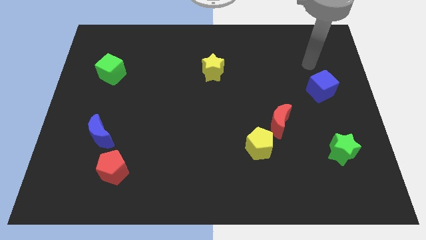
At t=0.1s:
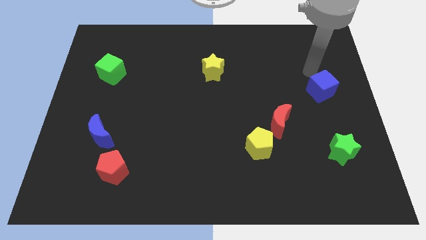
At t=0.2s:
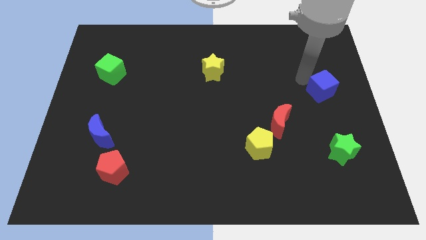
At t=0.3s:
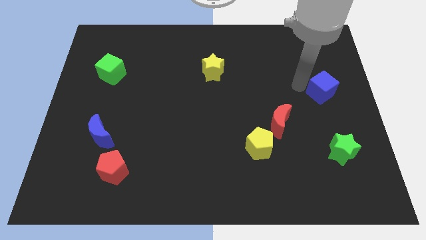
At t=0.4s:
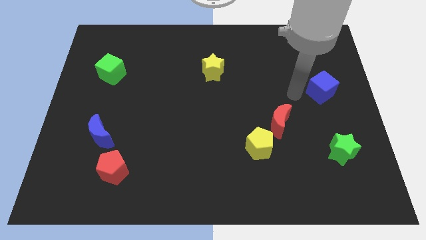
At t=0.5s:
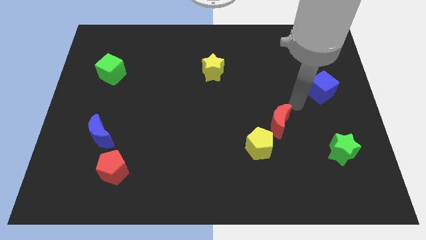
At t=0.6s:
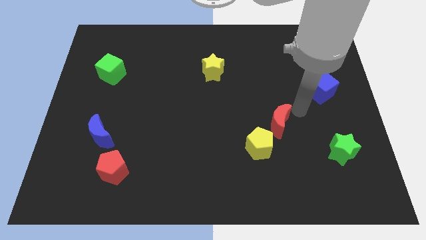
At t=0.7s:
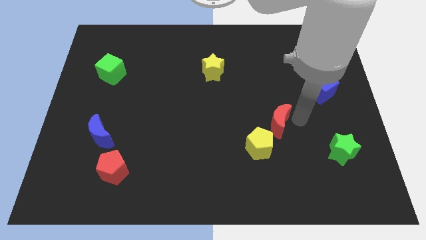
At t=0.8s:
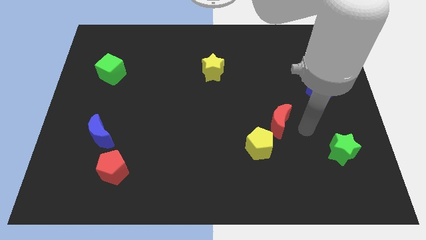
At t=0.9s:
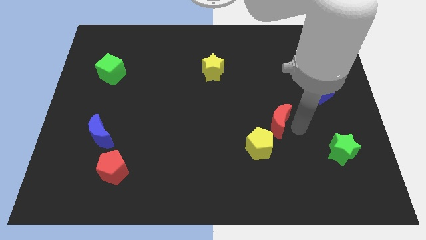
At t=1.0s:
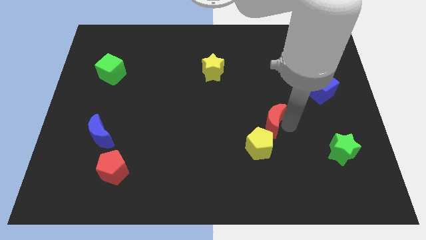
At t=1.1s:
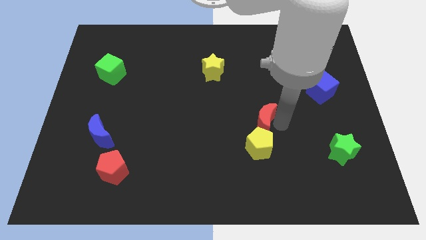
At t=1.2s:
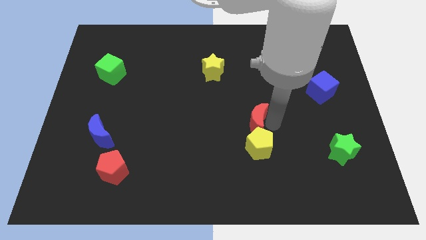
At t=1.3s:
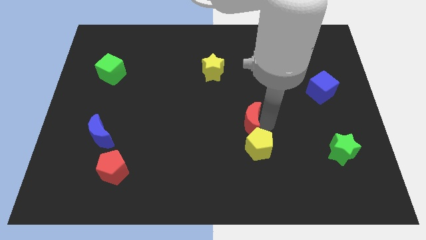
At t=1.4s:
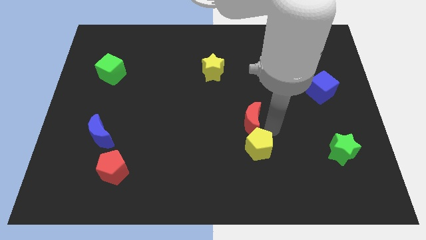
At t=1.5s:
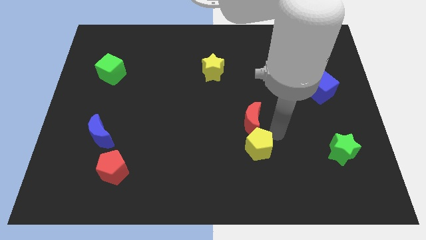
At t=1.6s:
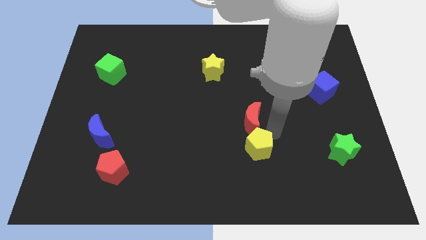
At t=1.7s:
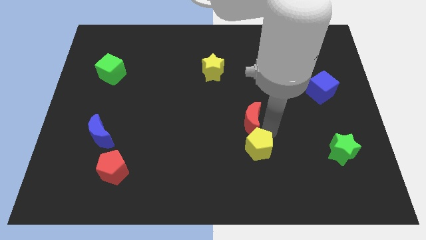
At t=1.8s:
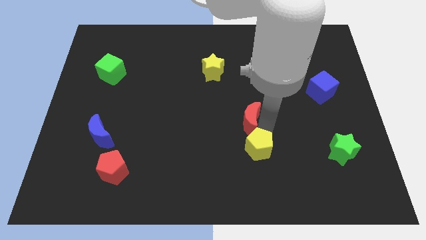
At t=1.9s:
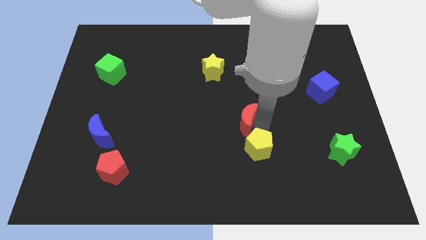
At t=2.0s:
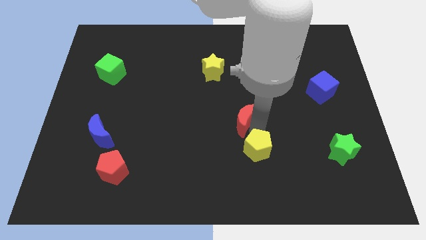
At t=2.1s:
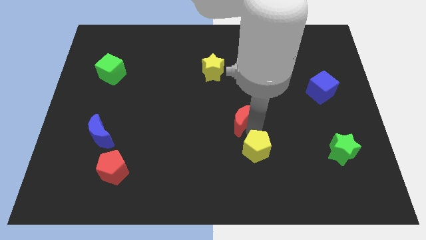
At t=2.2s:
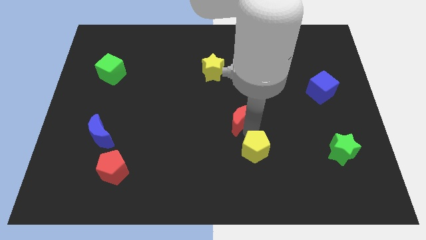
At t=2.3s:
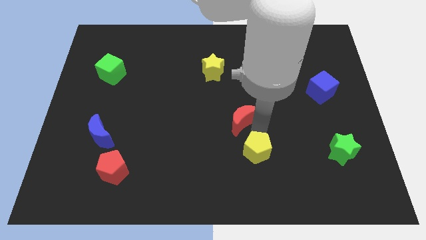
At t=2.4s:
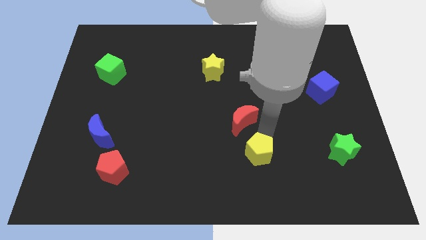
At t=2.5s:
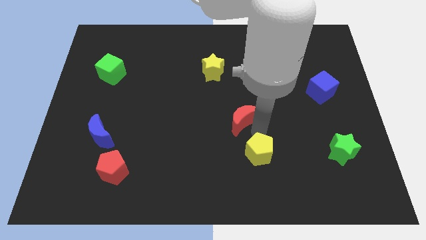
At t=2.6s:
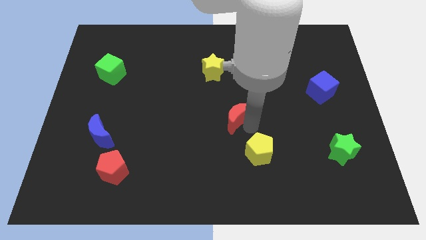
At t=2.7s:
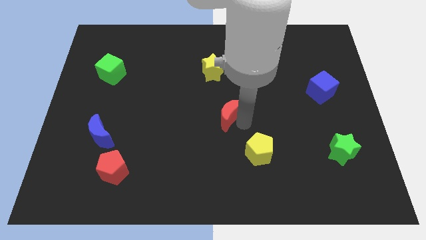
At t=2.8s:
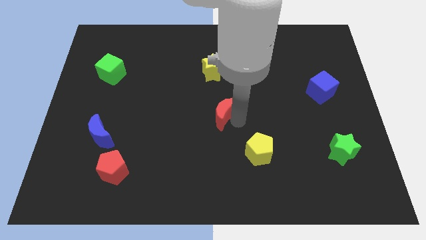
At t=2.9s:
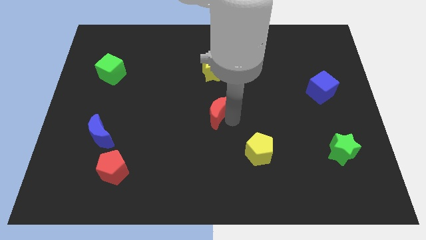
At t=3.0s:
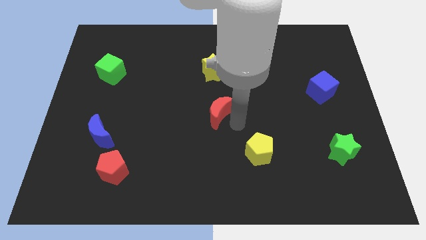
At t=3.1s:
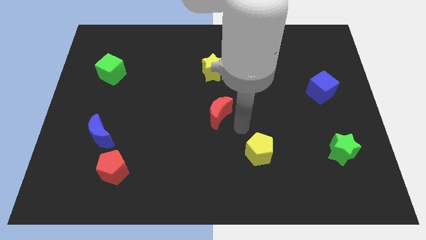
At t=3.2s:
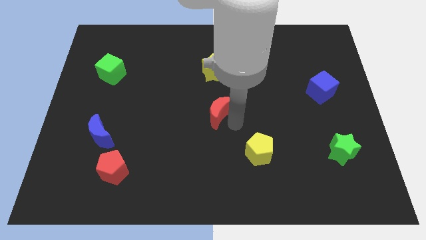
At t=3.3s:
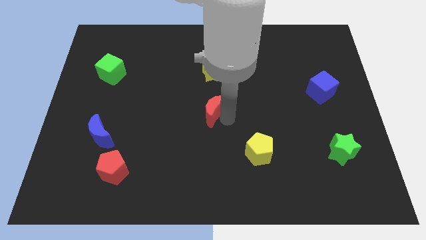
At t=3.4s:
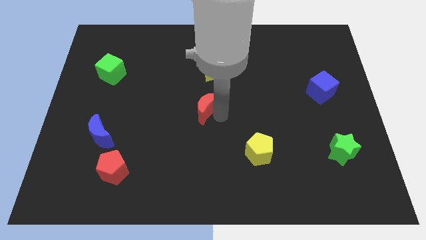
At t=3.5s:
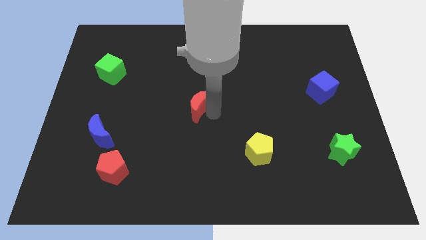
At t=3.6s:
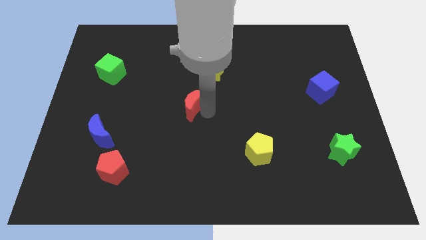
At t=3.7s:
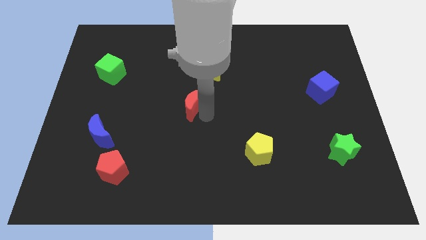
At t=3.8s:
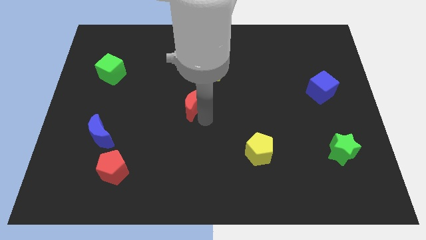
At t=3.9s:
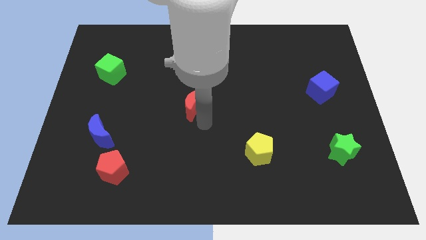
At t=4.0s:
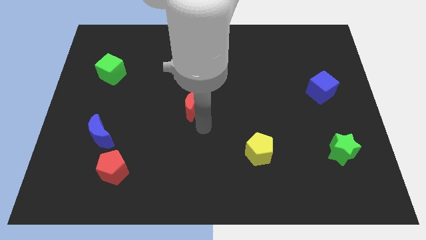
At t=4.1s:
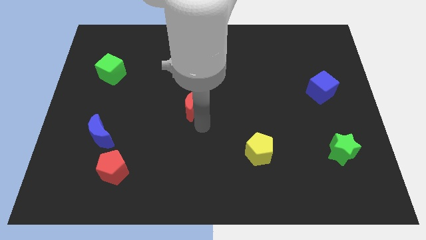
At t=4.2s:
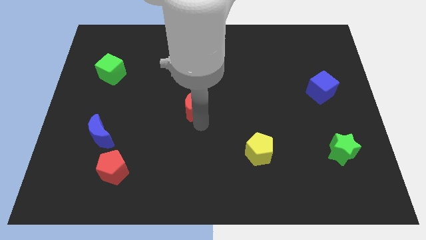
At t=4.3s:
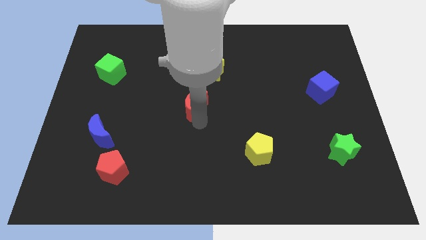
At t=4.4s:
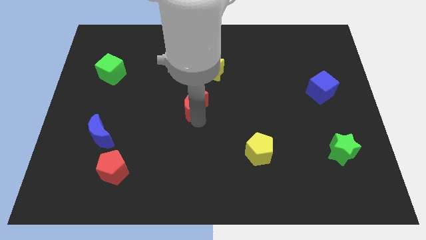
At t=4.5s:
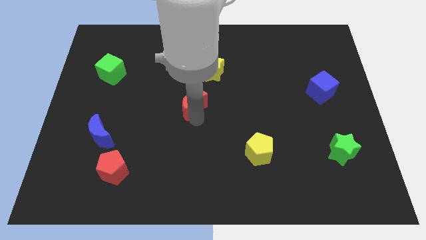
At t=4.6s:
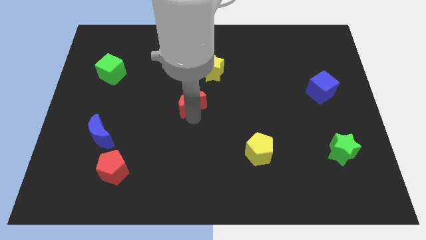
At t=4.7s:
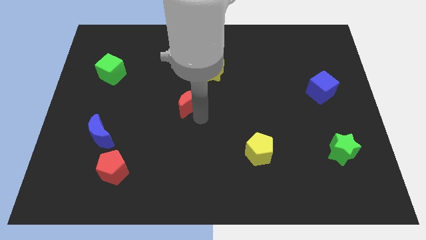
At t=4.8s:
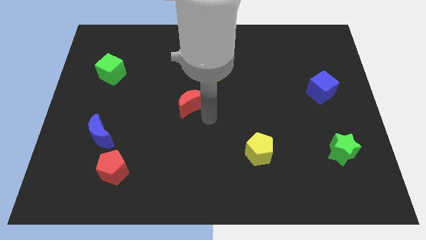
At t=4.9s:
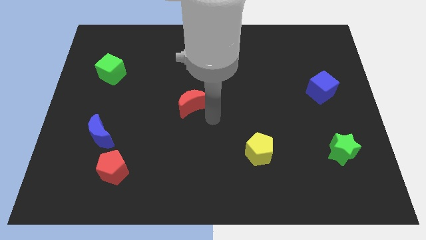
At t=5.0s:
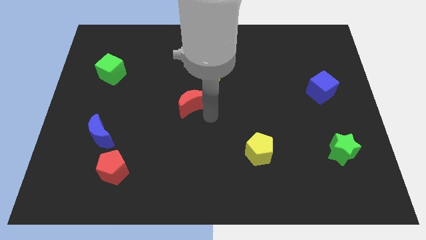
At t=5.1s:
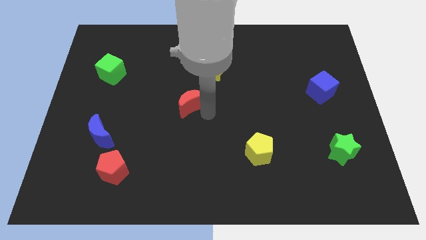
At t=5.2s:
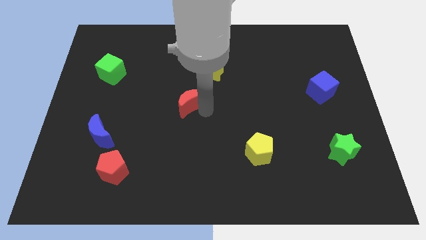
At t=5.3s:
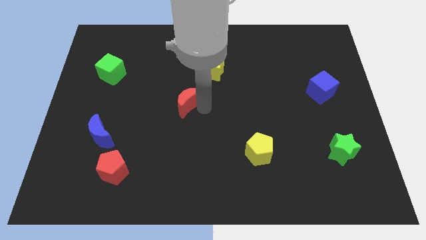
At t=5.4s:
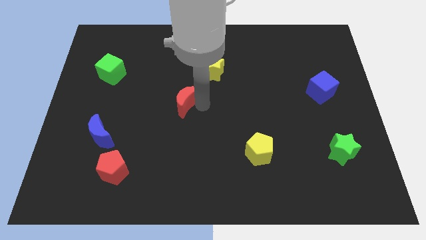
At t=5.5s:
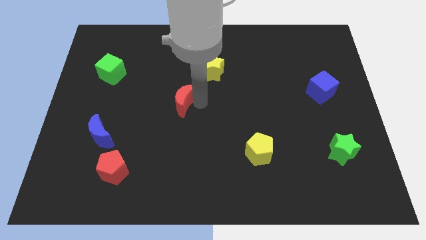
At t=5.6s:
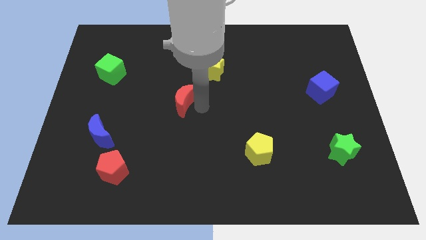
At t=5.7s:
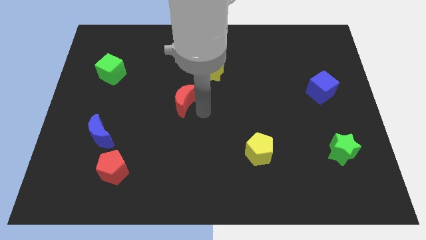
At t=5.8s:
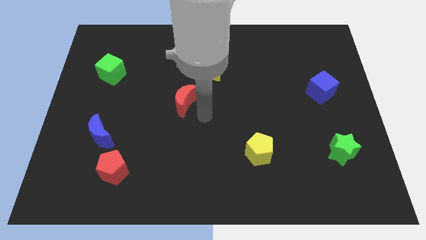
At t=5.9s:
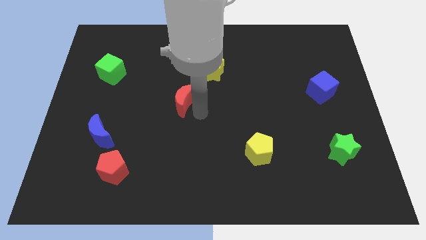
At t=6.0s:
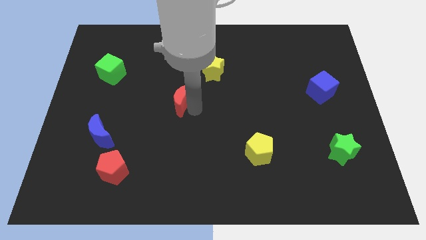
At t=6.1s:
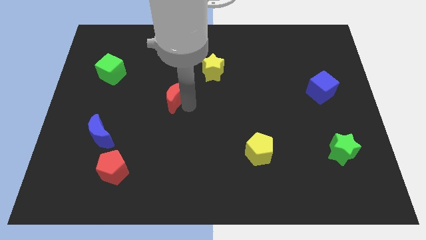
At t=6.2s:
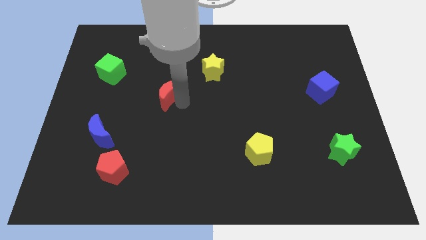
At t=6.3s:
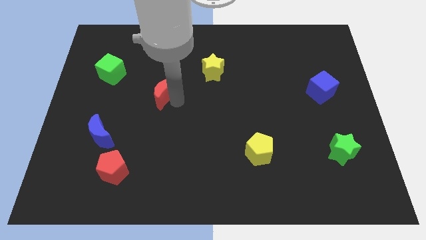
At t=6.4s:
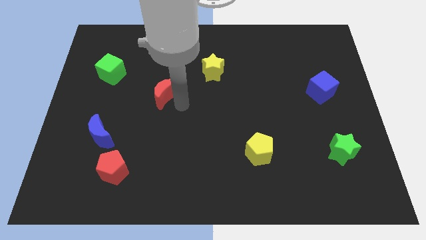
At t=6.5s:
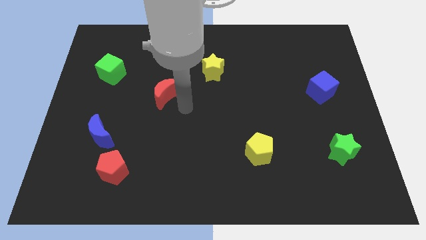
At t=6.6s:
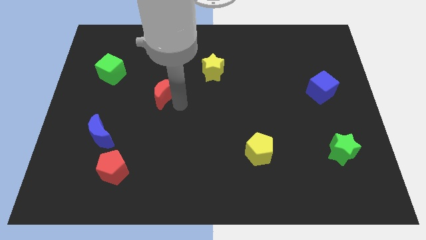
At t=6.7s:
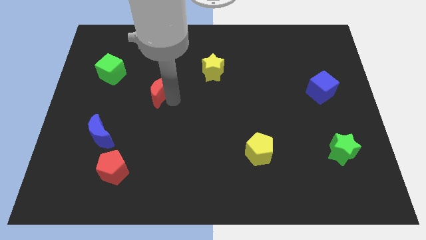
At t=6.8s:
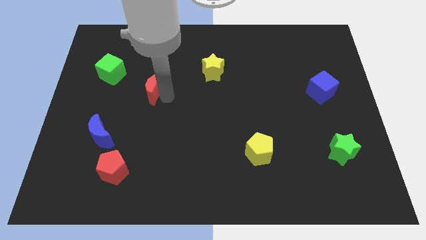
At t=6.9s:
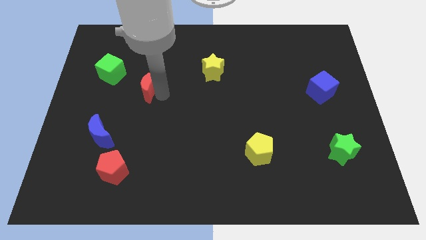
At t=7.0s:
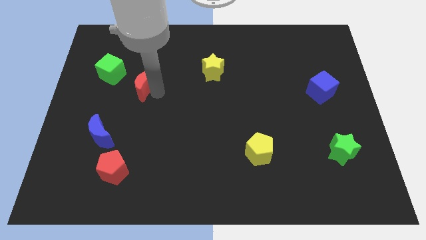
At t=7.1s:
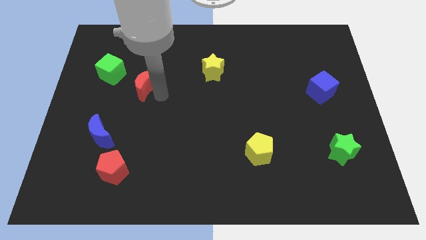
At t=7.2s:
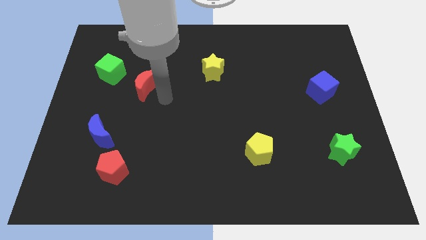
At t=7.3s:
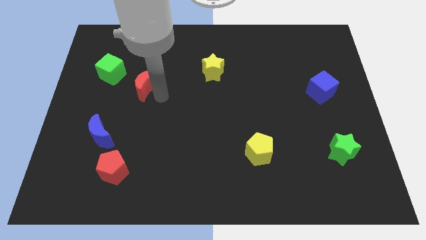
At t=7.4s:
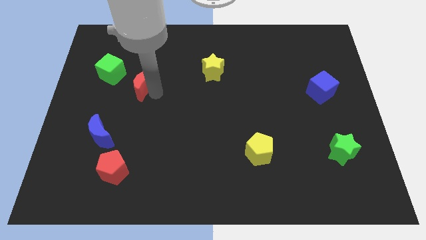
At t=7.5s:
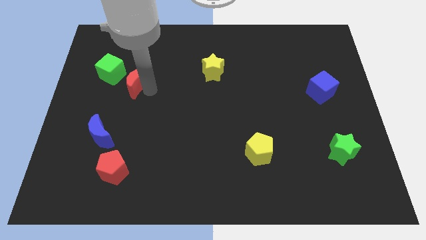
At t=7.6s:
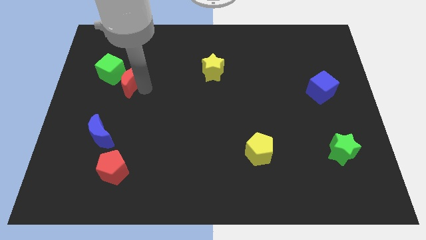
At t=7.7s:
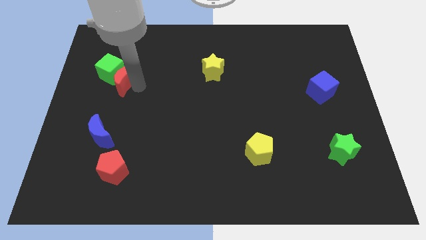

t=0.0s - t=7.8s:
move the red moon towards the green cube
